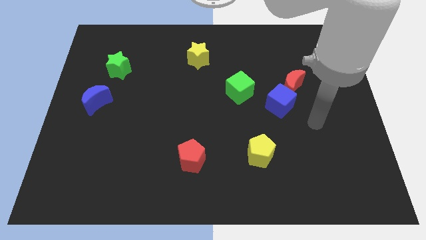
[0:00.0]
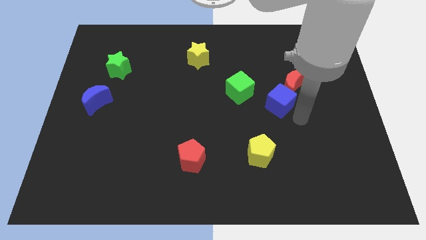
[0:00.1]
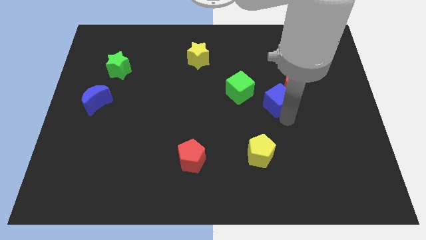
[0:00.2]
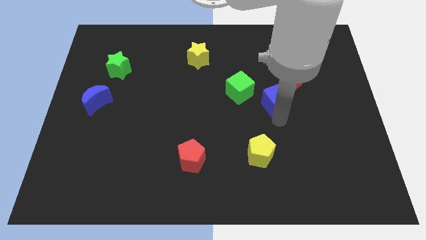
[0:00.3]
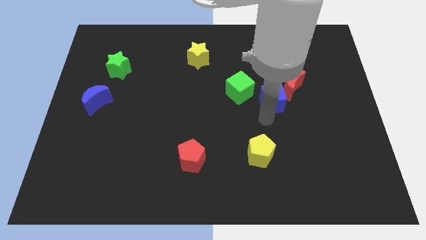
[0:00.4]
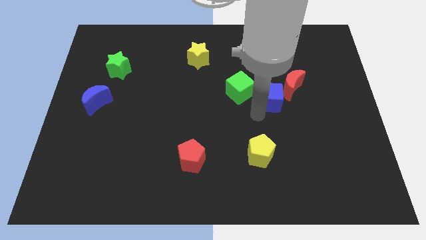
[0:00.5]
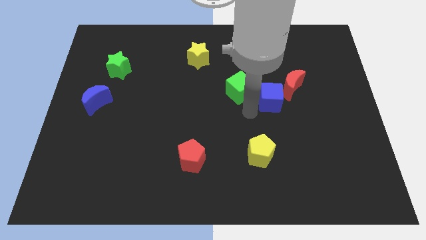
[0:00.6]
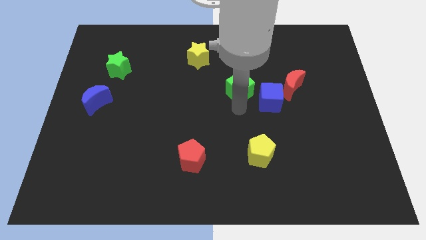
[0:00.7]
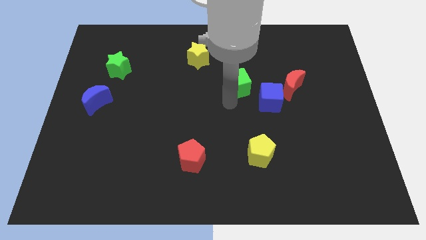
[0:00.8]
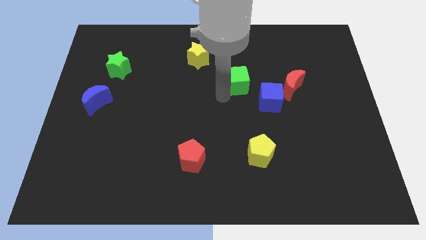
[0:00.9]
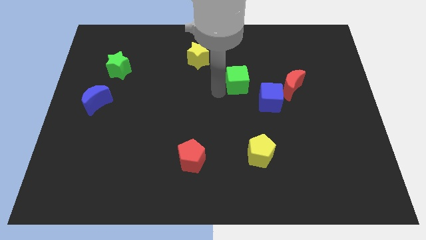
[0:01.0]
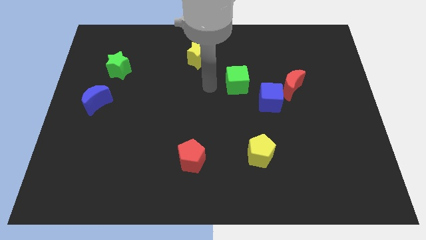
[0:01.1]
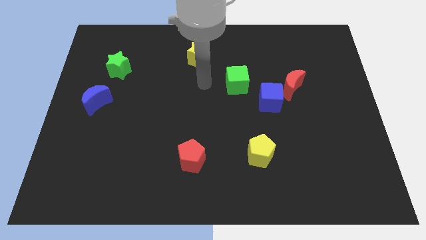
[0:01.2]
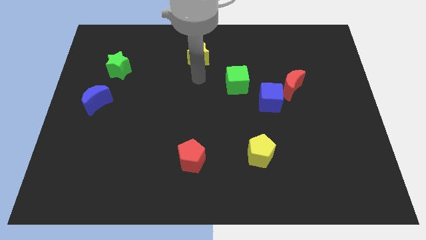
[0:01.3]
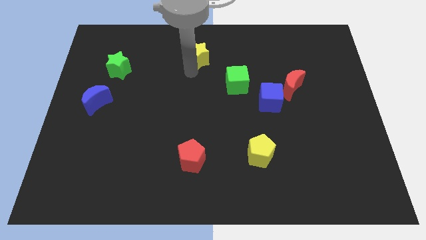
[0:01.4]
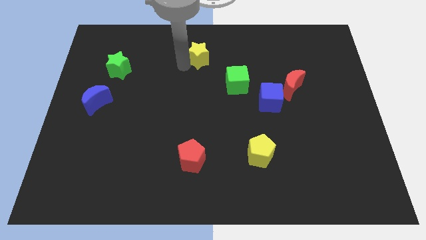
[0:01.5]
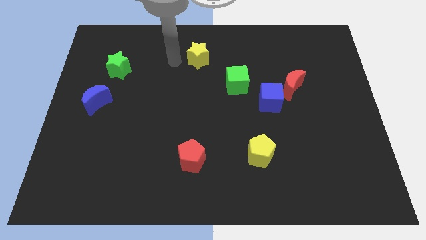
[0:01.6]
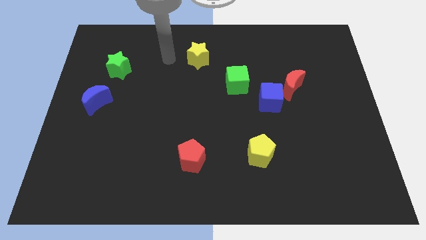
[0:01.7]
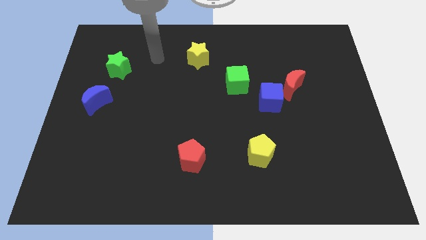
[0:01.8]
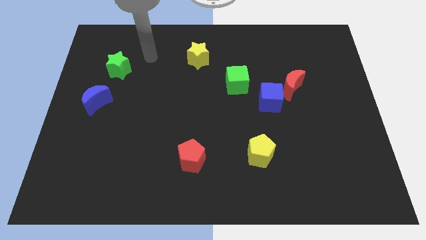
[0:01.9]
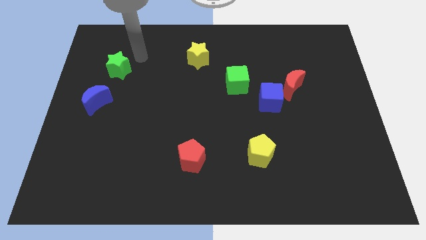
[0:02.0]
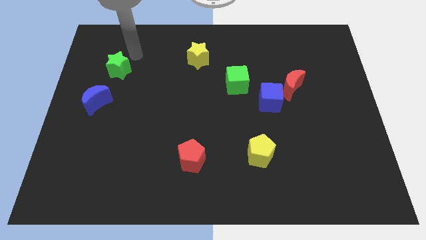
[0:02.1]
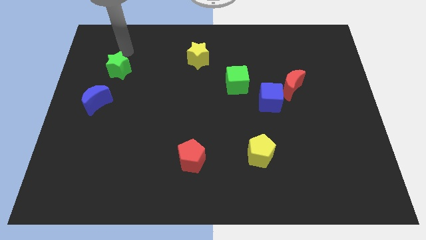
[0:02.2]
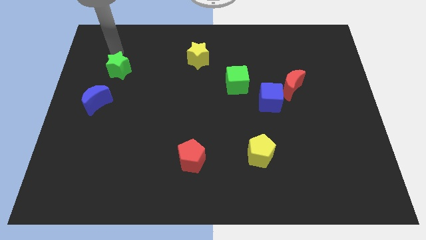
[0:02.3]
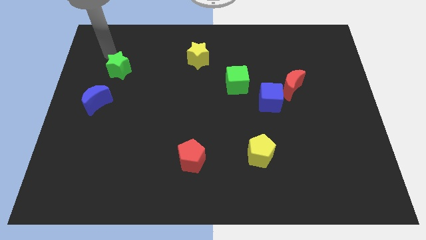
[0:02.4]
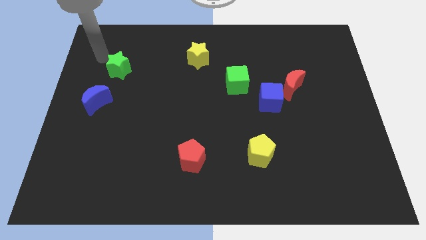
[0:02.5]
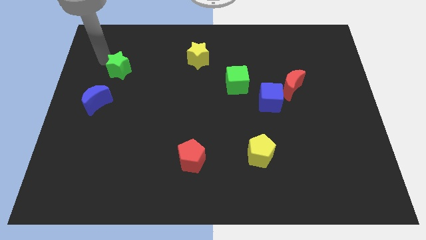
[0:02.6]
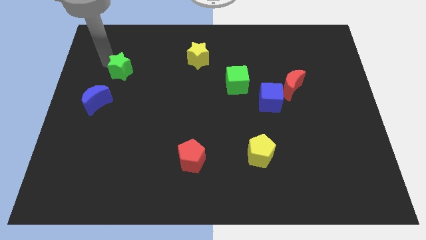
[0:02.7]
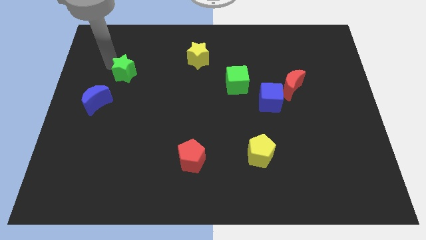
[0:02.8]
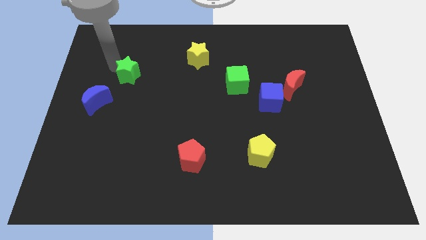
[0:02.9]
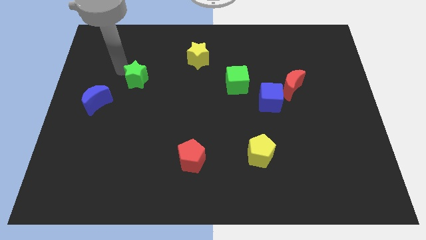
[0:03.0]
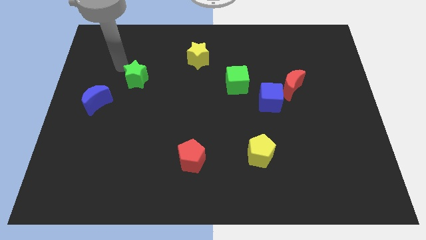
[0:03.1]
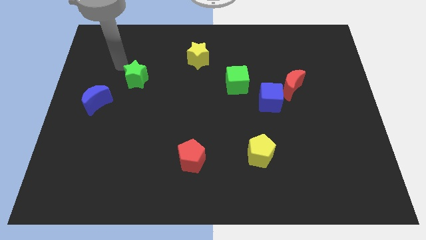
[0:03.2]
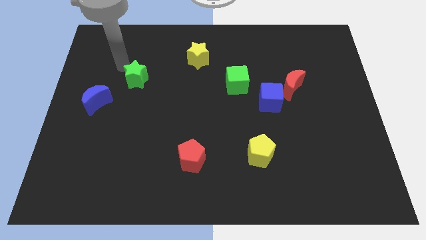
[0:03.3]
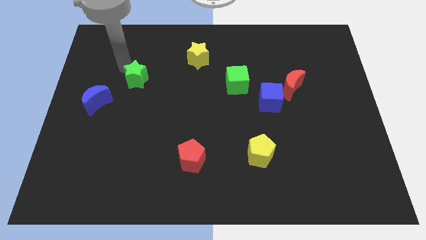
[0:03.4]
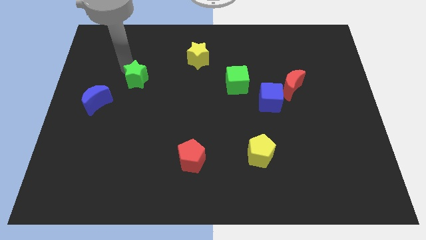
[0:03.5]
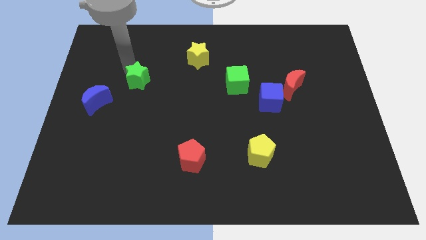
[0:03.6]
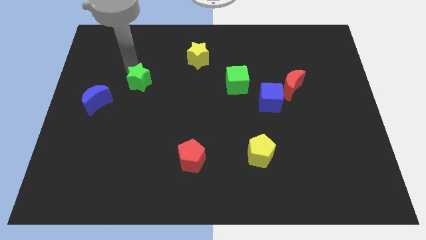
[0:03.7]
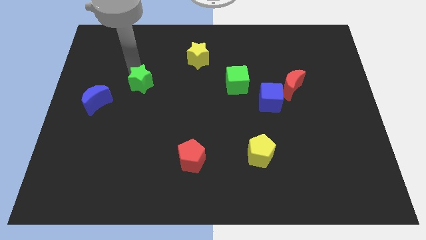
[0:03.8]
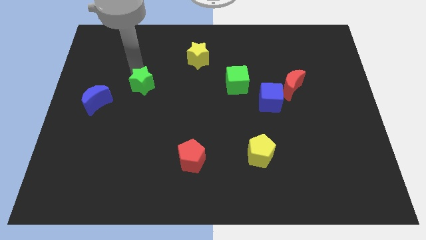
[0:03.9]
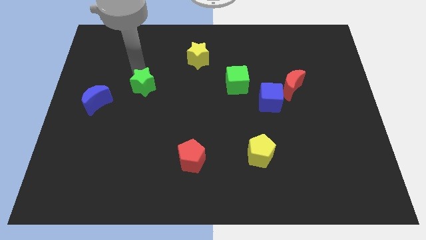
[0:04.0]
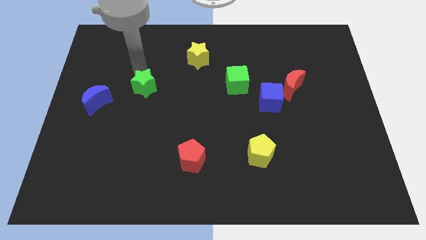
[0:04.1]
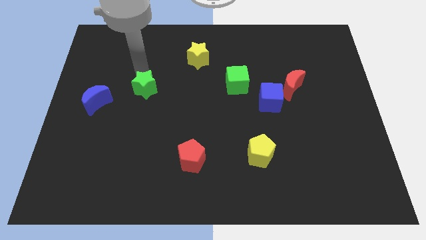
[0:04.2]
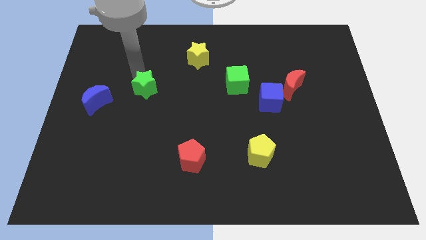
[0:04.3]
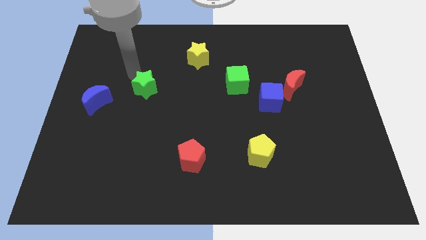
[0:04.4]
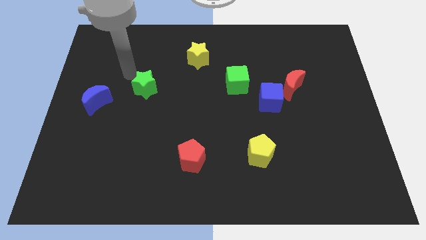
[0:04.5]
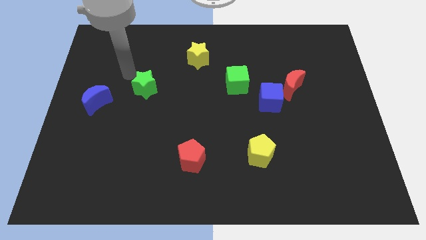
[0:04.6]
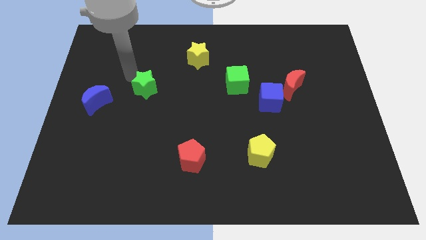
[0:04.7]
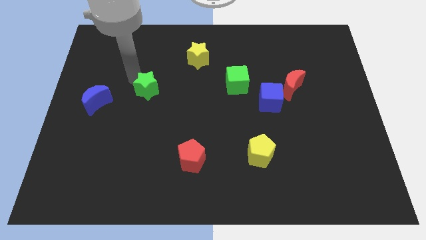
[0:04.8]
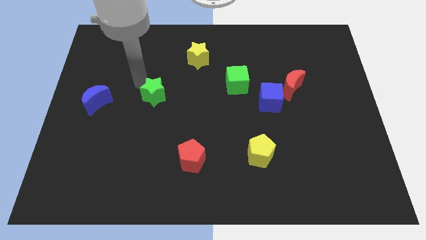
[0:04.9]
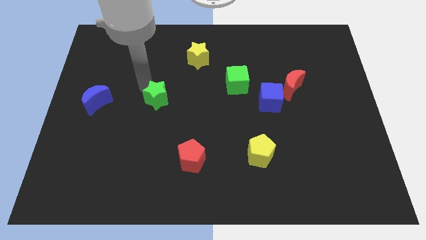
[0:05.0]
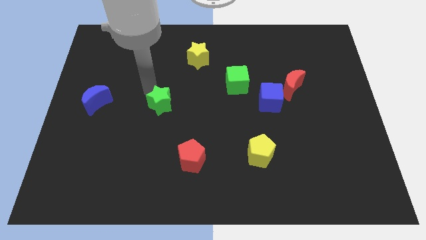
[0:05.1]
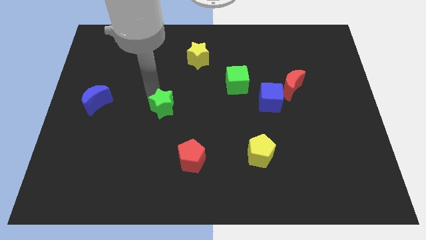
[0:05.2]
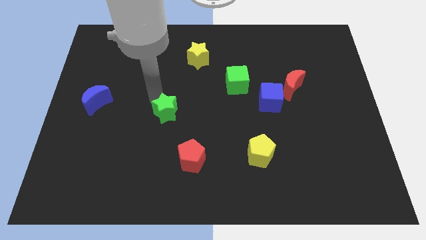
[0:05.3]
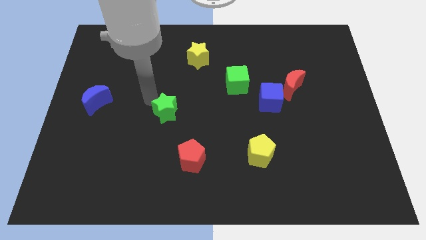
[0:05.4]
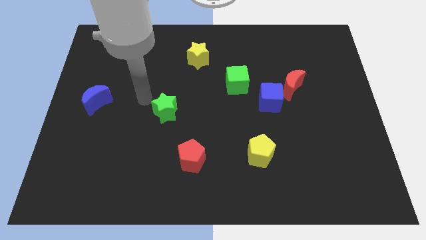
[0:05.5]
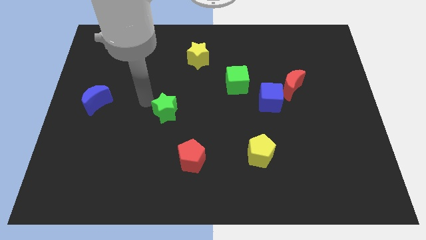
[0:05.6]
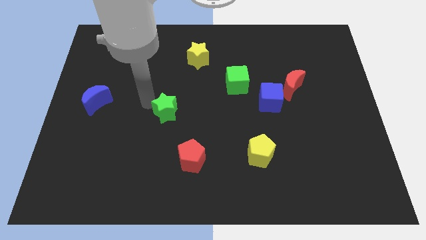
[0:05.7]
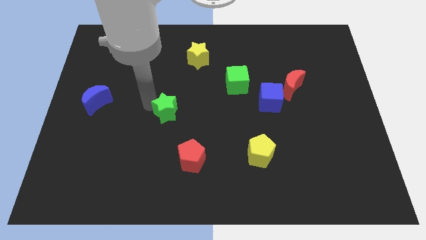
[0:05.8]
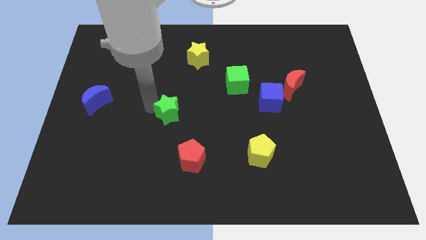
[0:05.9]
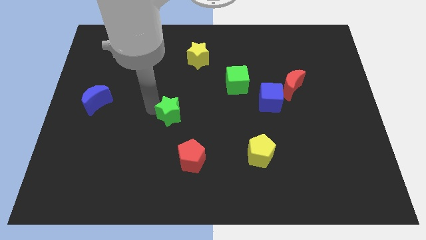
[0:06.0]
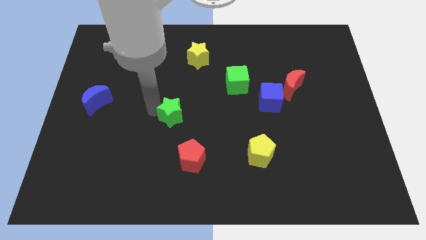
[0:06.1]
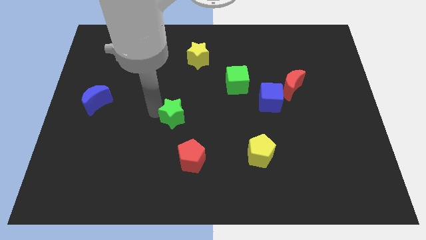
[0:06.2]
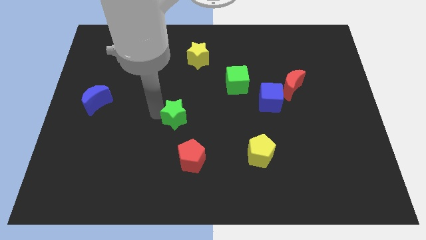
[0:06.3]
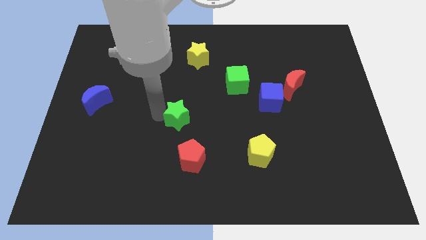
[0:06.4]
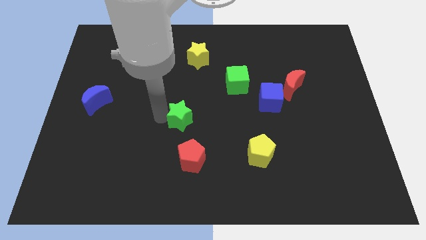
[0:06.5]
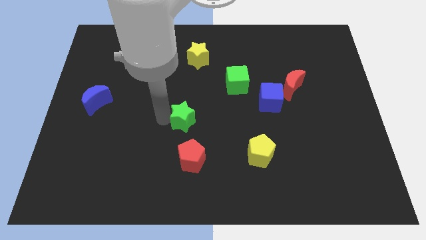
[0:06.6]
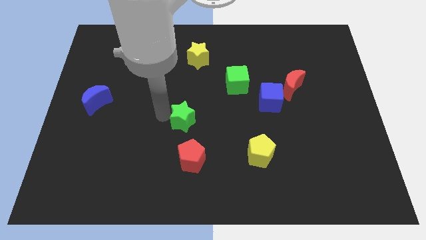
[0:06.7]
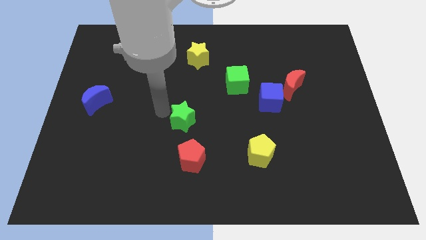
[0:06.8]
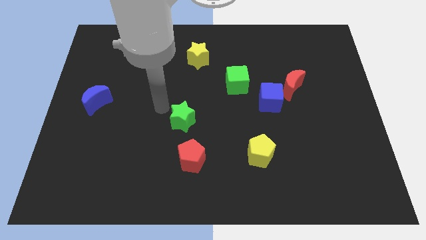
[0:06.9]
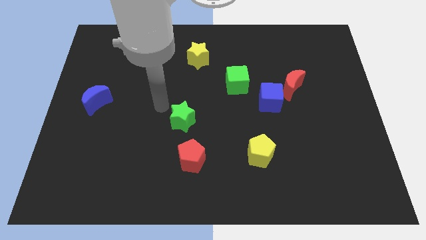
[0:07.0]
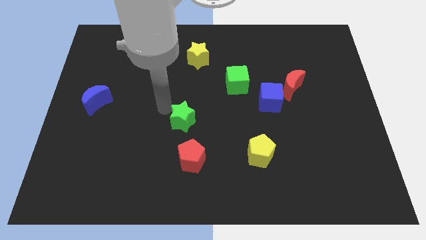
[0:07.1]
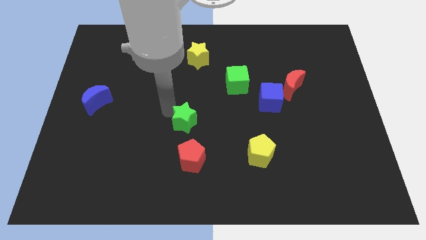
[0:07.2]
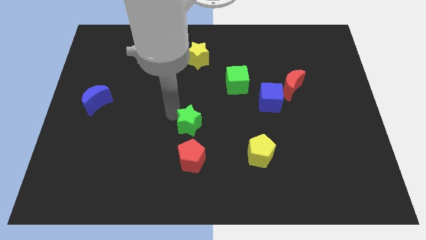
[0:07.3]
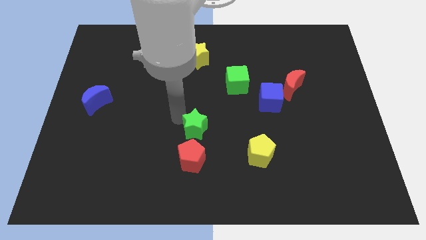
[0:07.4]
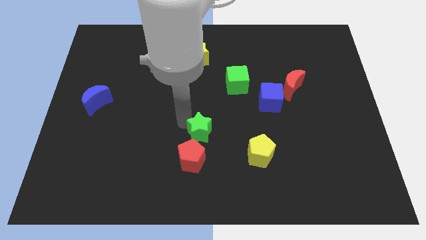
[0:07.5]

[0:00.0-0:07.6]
put the green star diagonally up and to the right of the red pentagon
